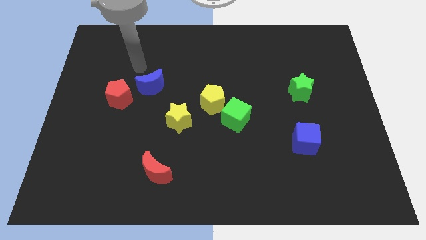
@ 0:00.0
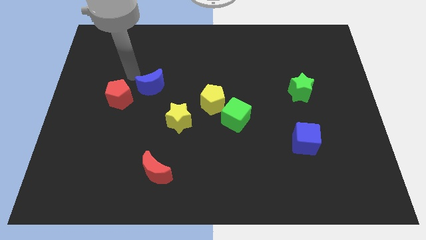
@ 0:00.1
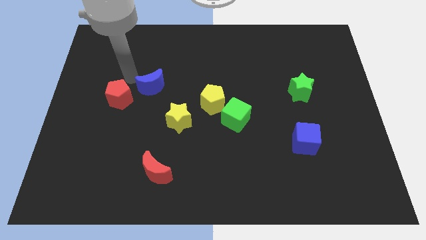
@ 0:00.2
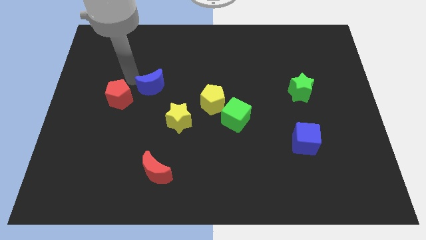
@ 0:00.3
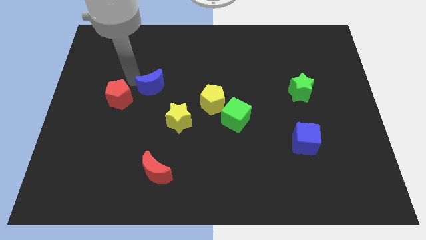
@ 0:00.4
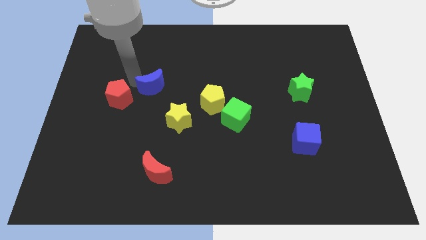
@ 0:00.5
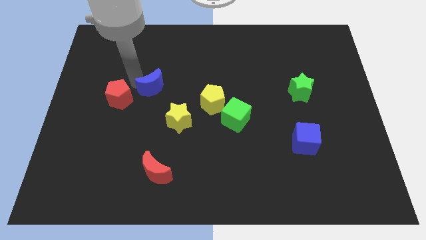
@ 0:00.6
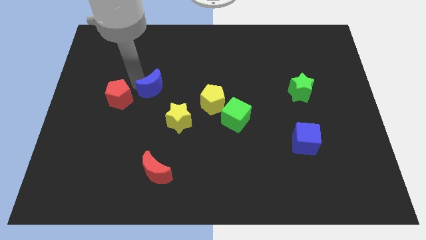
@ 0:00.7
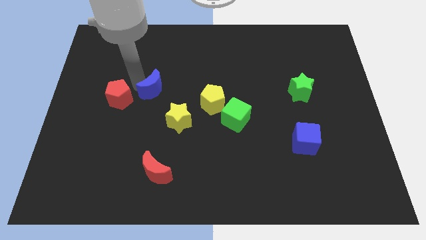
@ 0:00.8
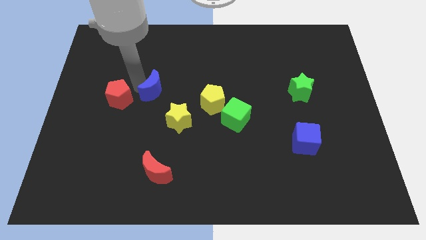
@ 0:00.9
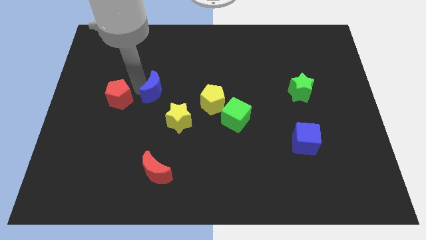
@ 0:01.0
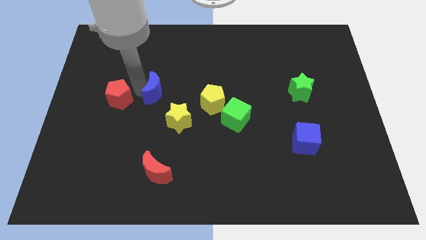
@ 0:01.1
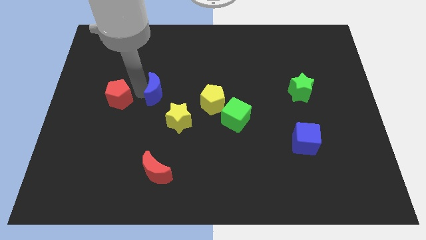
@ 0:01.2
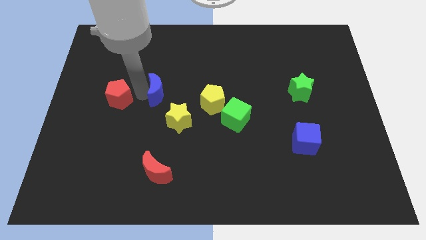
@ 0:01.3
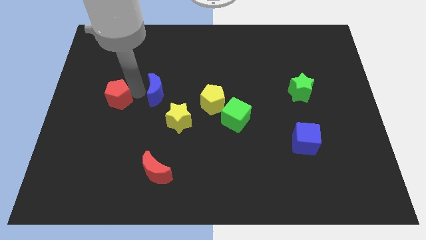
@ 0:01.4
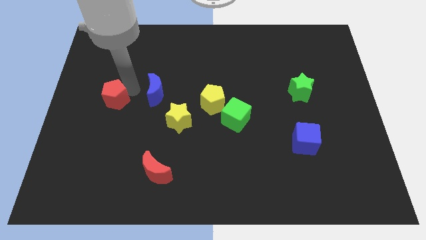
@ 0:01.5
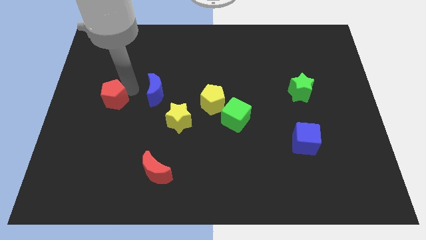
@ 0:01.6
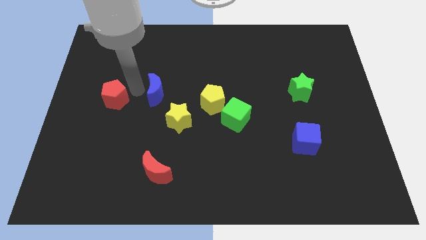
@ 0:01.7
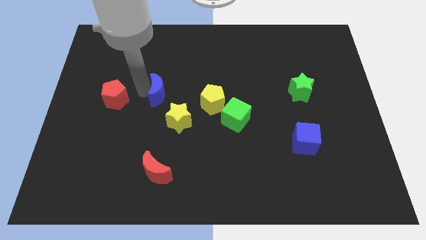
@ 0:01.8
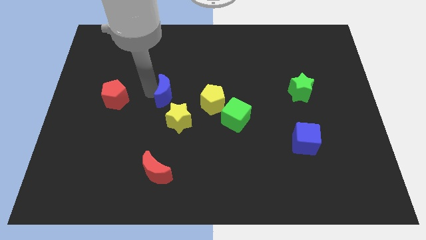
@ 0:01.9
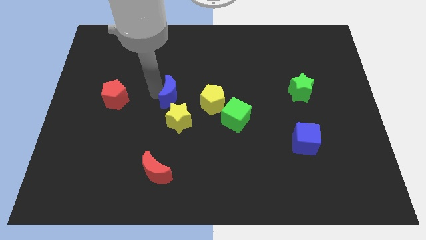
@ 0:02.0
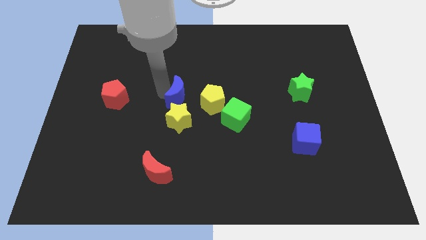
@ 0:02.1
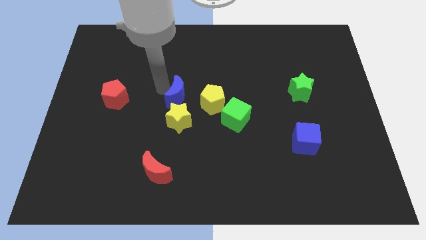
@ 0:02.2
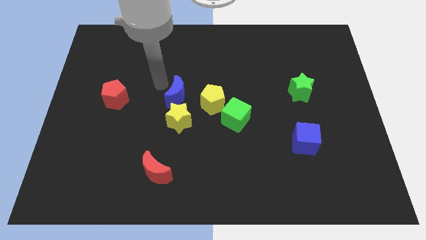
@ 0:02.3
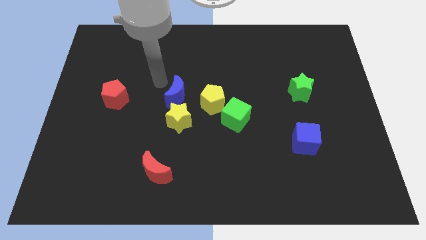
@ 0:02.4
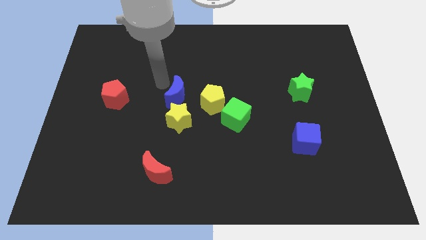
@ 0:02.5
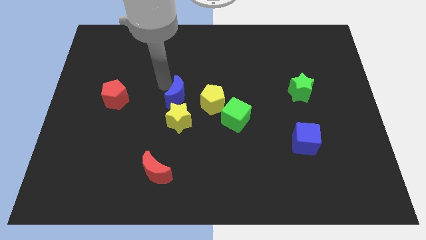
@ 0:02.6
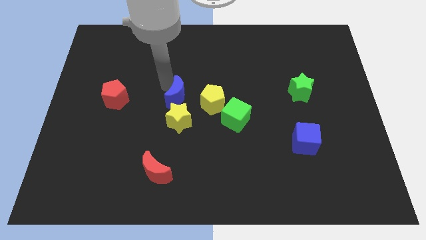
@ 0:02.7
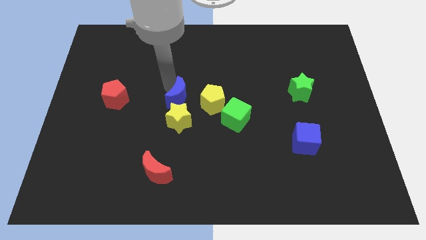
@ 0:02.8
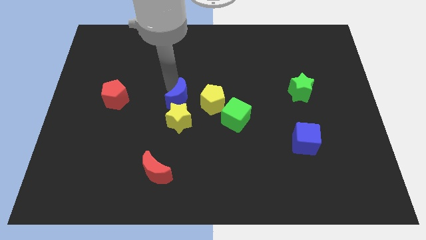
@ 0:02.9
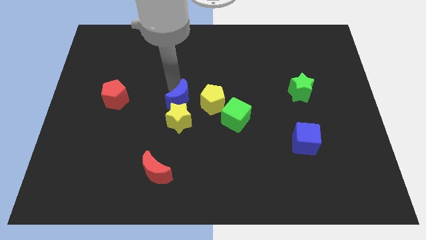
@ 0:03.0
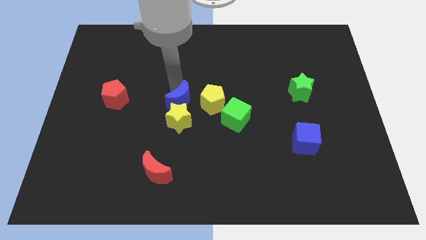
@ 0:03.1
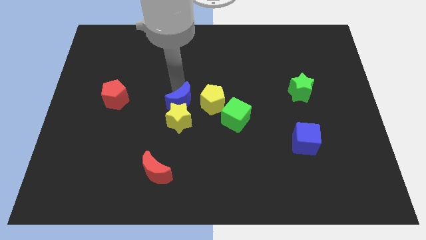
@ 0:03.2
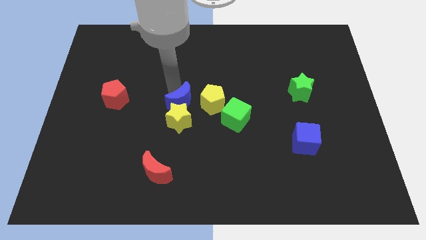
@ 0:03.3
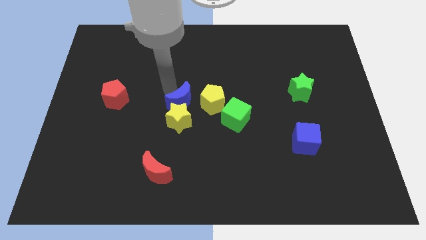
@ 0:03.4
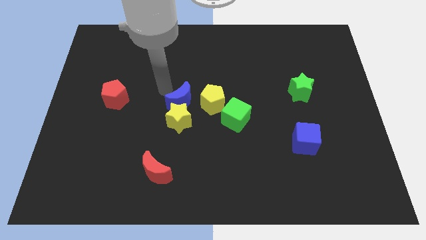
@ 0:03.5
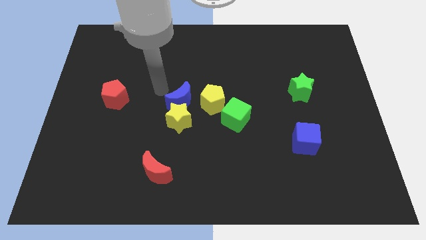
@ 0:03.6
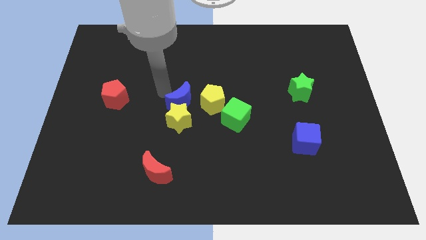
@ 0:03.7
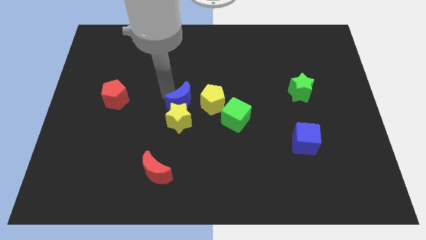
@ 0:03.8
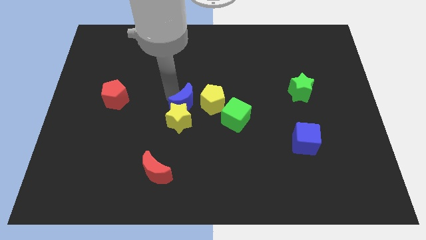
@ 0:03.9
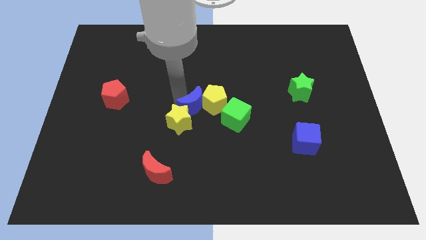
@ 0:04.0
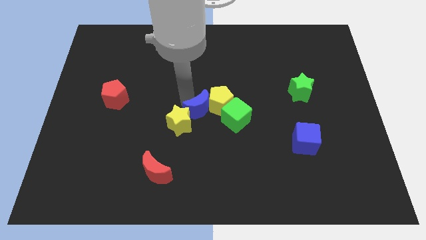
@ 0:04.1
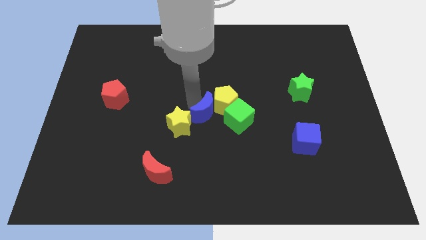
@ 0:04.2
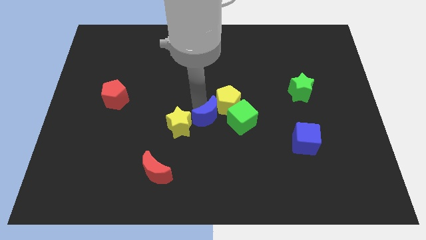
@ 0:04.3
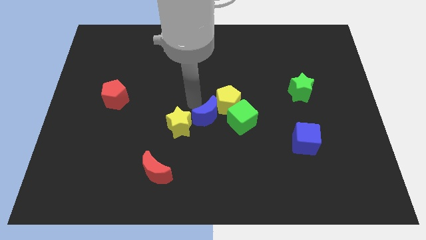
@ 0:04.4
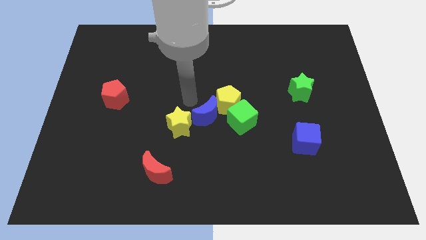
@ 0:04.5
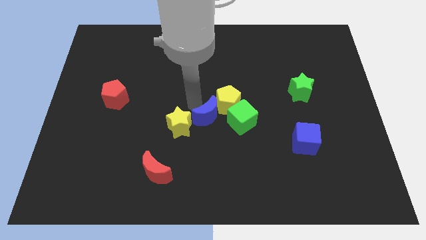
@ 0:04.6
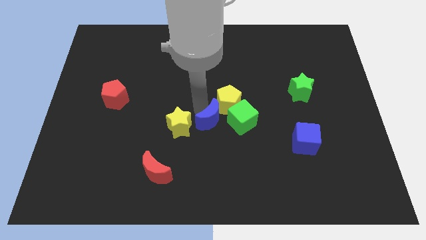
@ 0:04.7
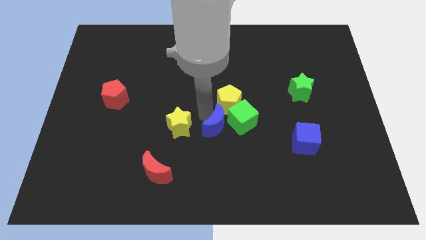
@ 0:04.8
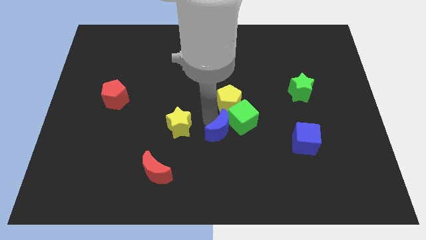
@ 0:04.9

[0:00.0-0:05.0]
slide the blue moon downwards and right diagonally

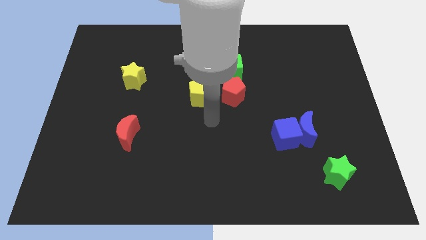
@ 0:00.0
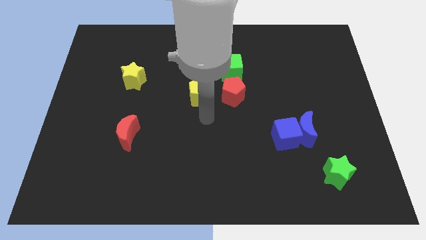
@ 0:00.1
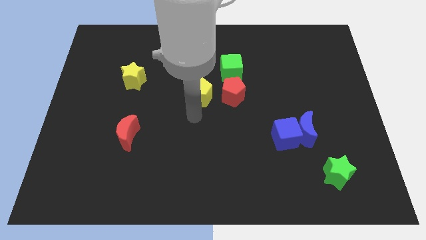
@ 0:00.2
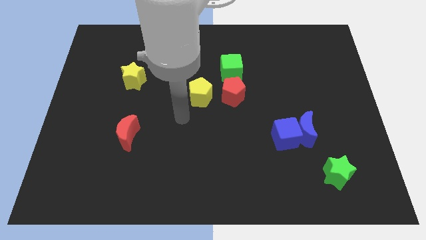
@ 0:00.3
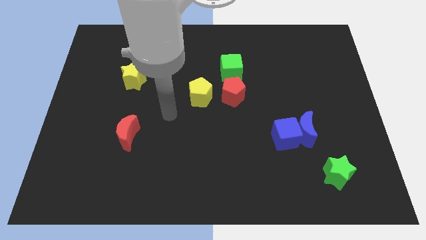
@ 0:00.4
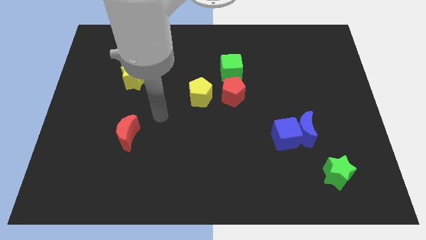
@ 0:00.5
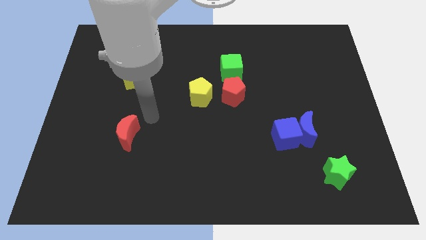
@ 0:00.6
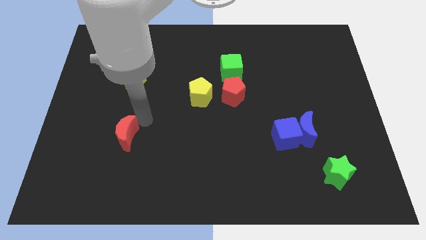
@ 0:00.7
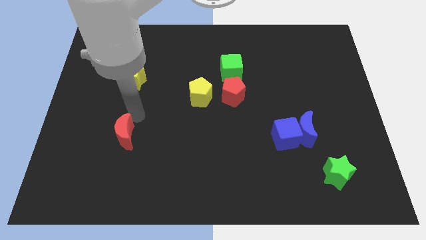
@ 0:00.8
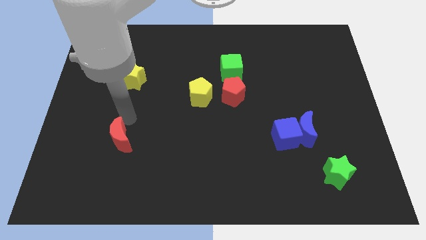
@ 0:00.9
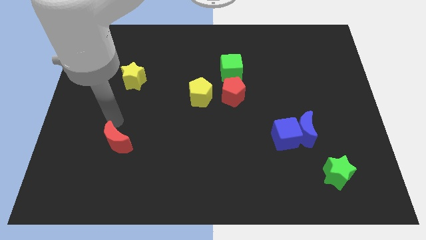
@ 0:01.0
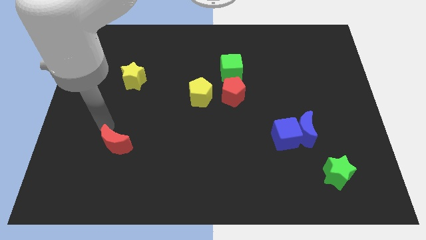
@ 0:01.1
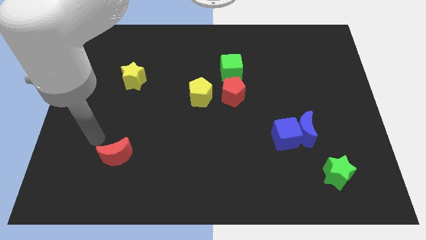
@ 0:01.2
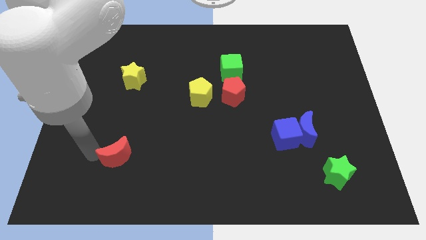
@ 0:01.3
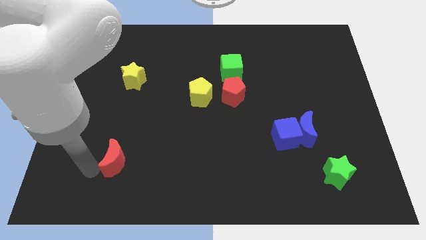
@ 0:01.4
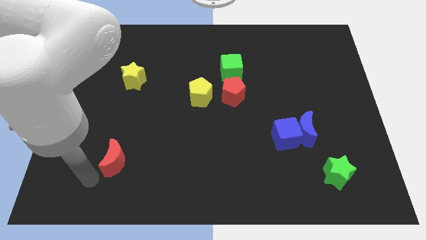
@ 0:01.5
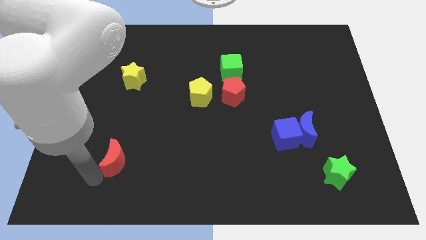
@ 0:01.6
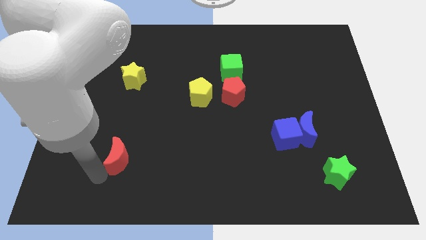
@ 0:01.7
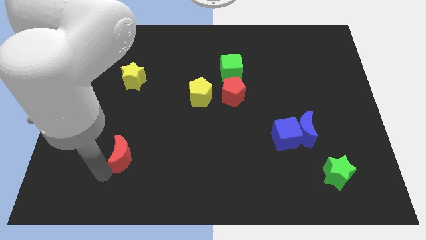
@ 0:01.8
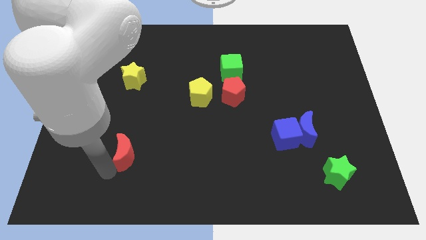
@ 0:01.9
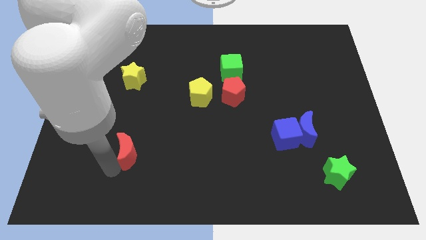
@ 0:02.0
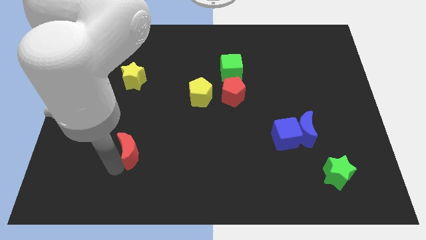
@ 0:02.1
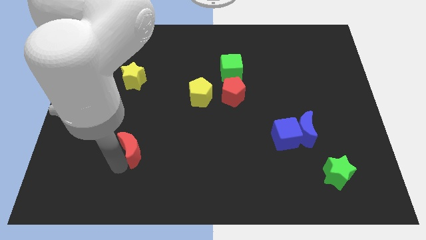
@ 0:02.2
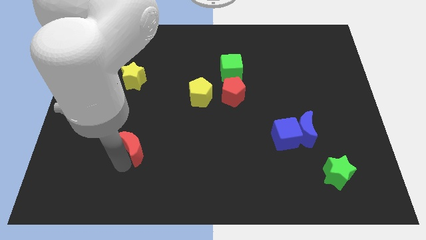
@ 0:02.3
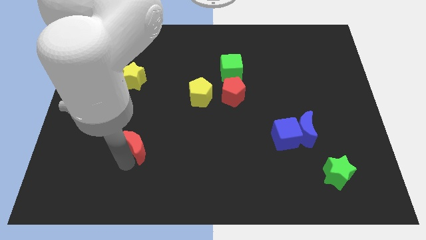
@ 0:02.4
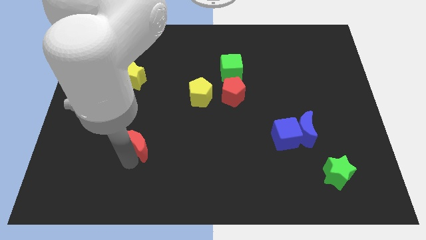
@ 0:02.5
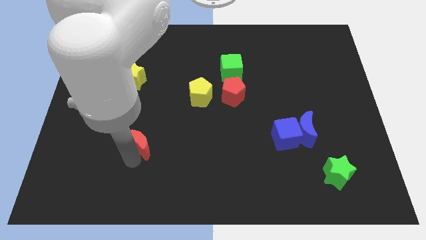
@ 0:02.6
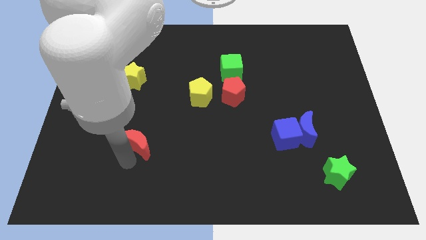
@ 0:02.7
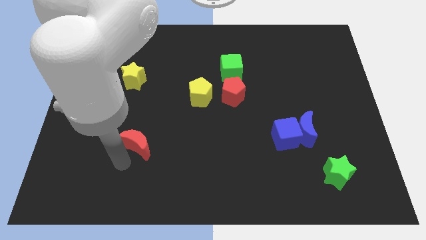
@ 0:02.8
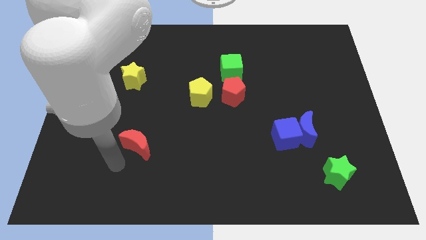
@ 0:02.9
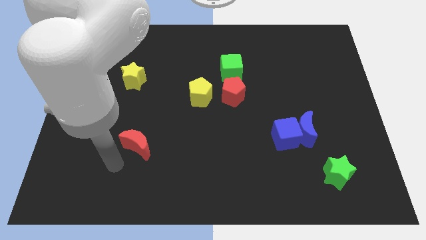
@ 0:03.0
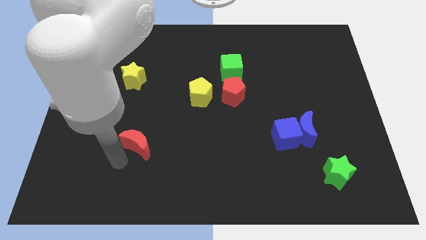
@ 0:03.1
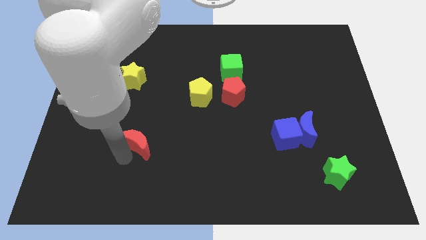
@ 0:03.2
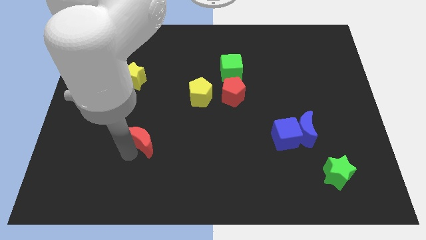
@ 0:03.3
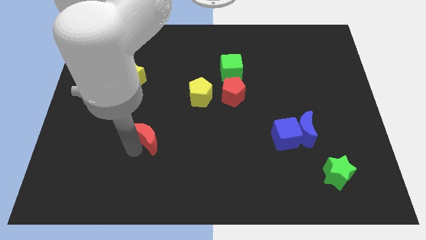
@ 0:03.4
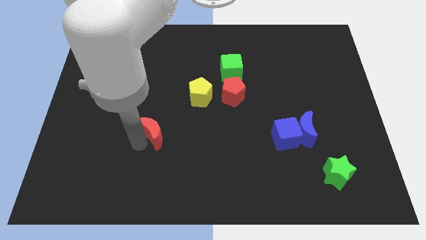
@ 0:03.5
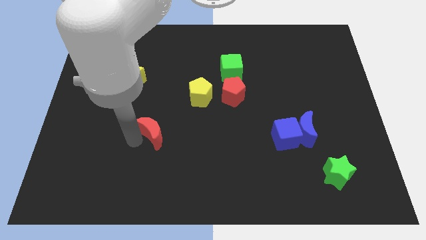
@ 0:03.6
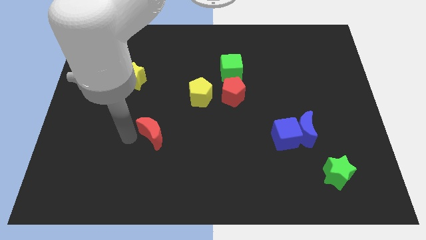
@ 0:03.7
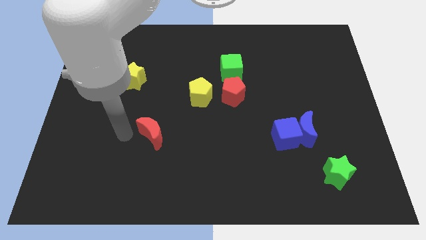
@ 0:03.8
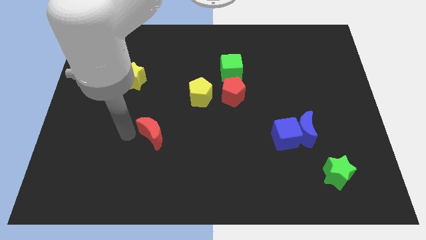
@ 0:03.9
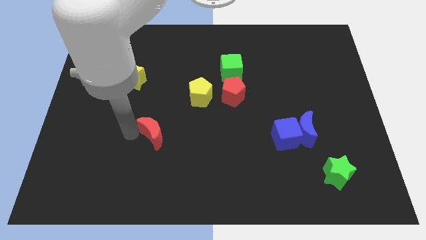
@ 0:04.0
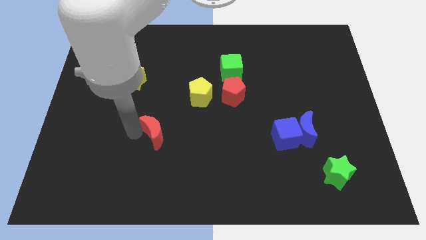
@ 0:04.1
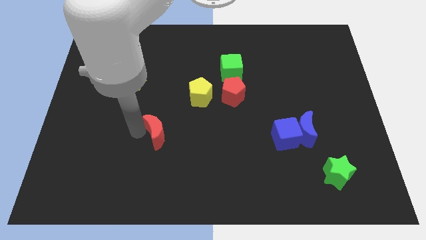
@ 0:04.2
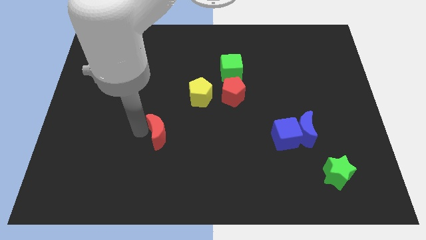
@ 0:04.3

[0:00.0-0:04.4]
slide the red moon to the right somewhat
